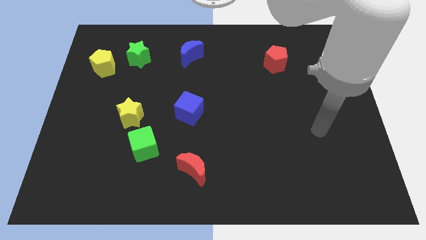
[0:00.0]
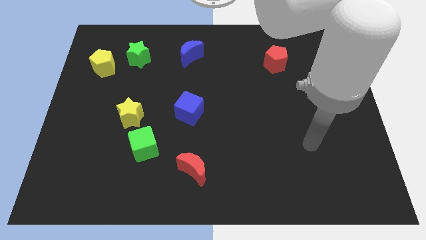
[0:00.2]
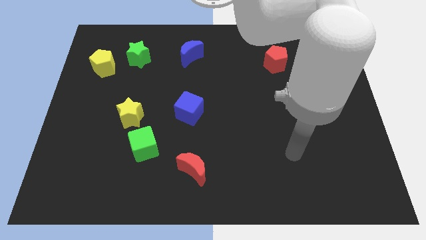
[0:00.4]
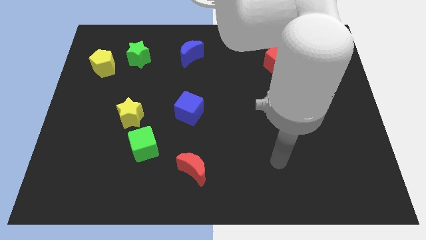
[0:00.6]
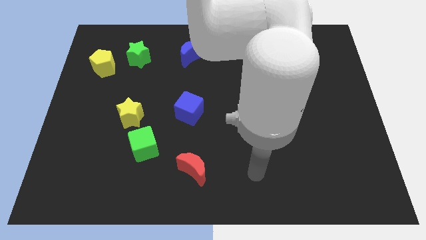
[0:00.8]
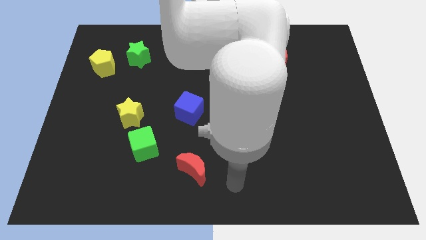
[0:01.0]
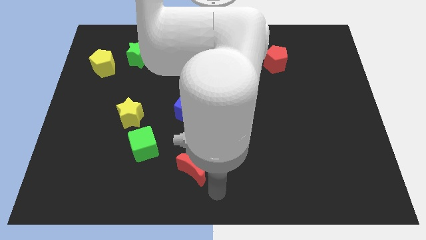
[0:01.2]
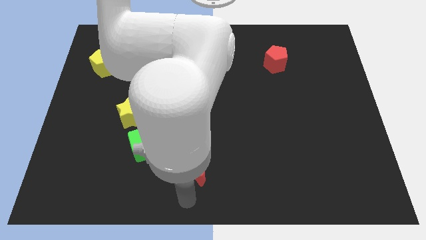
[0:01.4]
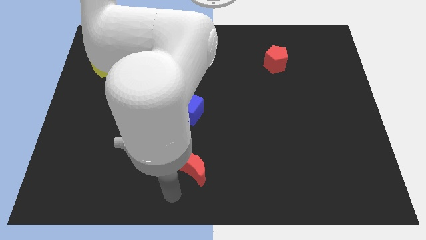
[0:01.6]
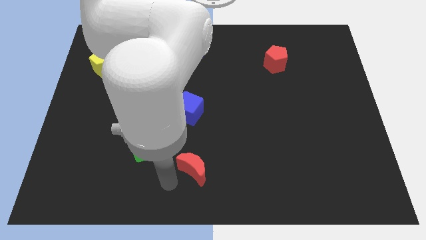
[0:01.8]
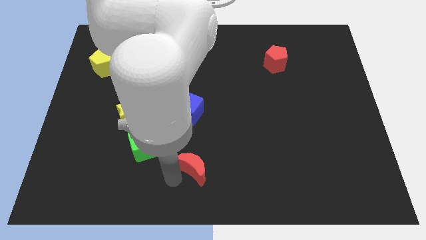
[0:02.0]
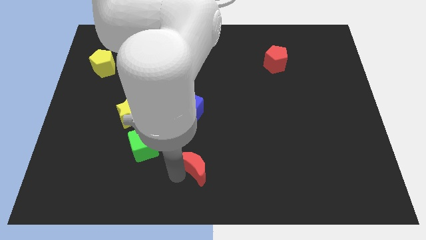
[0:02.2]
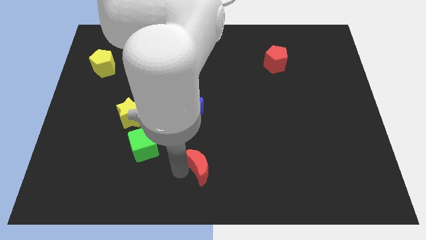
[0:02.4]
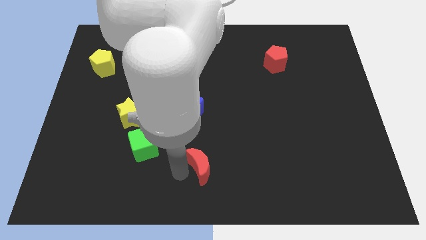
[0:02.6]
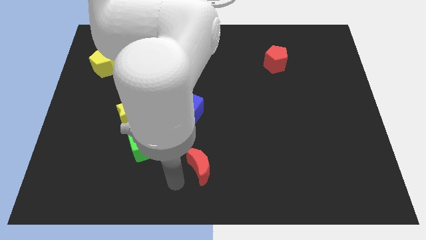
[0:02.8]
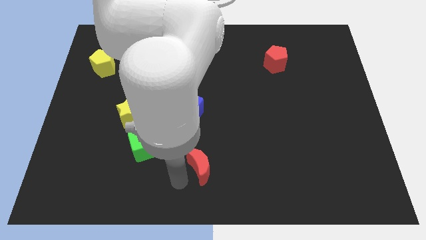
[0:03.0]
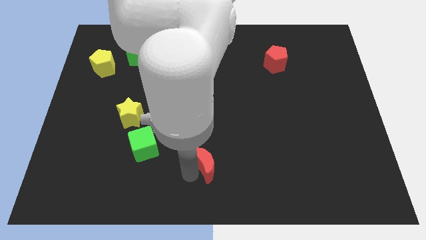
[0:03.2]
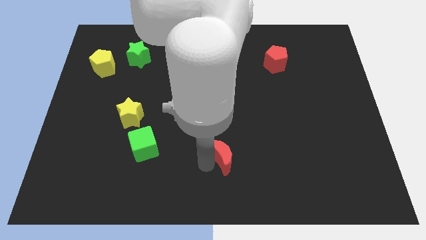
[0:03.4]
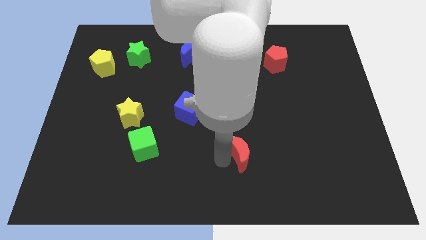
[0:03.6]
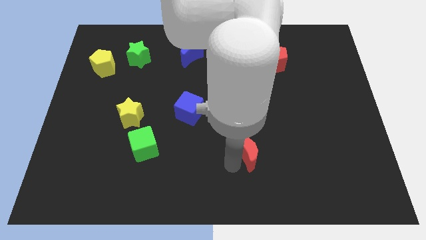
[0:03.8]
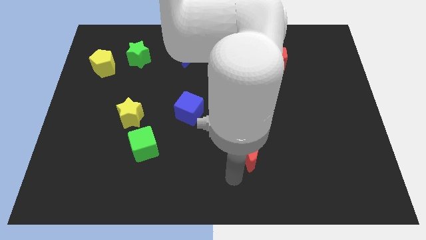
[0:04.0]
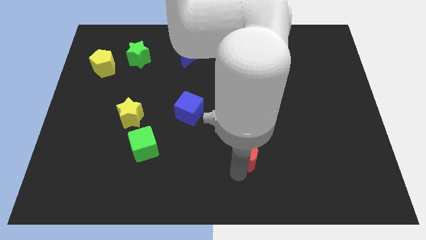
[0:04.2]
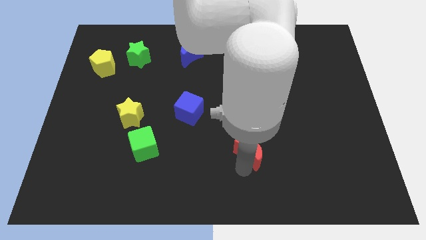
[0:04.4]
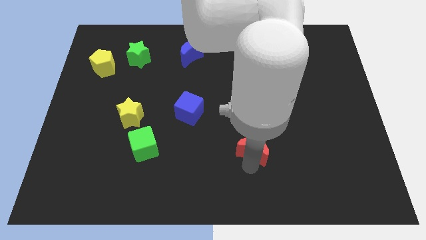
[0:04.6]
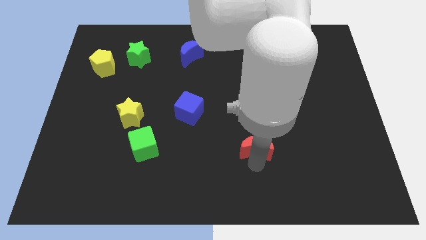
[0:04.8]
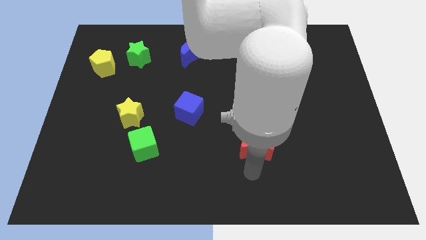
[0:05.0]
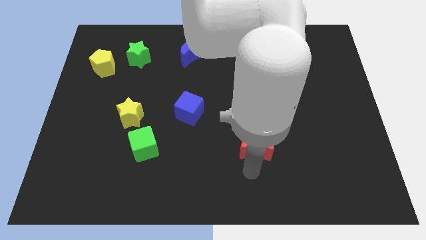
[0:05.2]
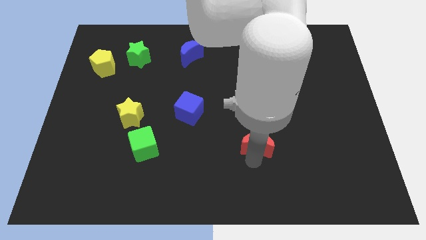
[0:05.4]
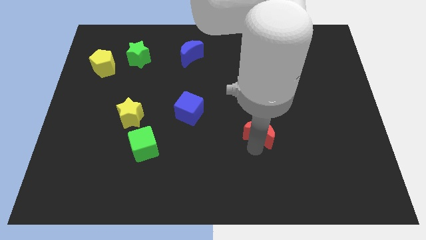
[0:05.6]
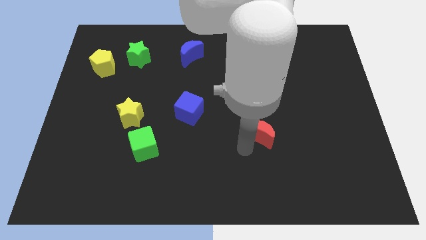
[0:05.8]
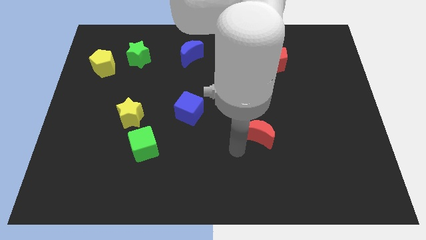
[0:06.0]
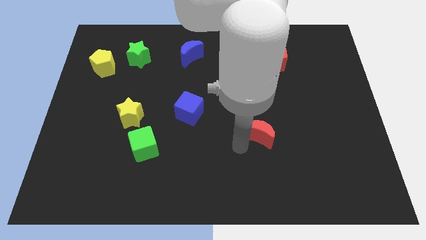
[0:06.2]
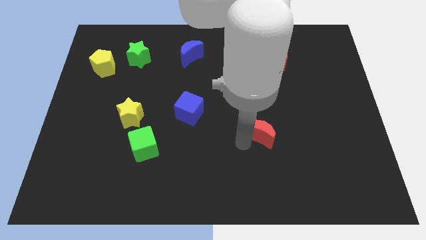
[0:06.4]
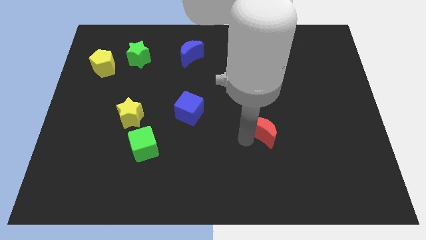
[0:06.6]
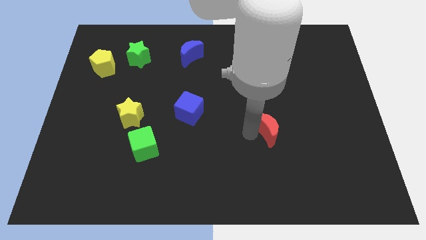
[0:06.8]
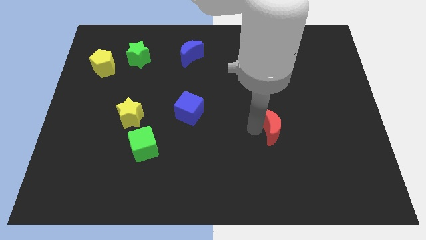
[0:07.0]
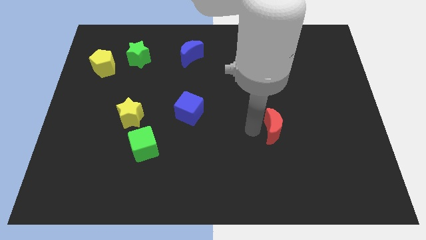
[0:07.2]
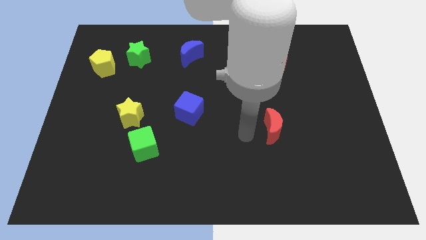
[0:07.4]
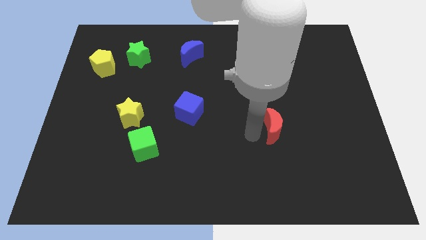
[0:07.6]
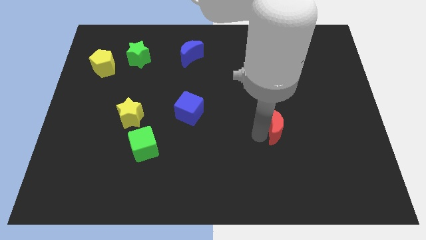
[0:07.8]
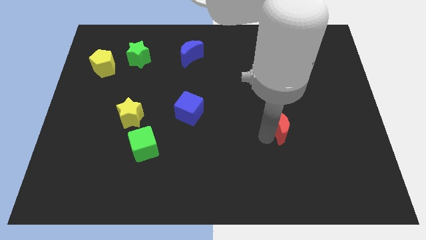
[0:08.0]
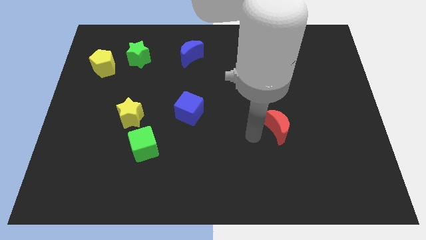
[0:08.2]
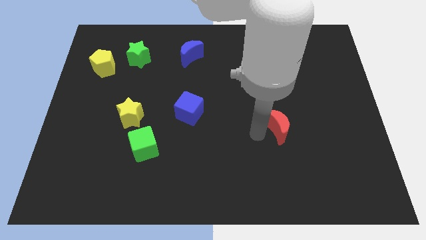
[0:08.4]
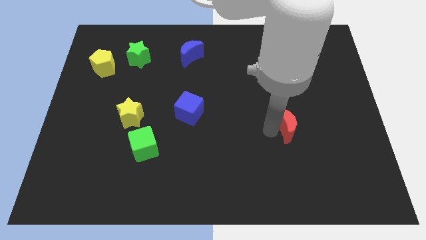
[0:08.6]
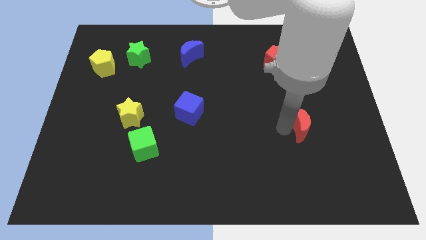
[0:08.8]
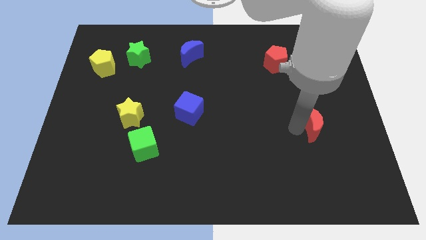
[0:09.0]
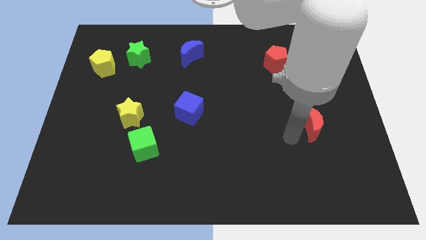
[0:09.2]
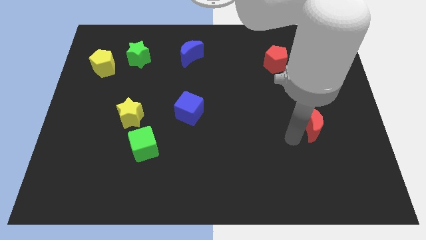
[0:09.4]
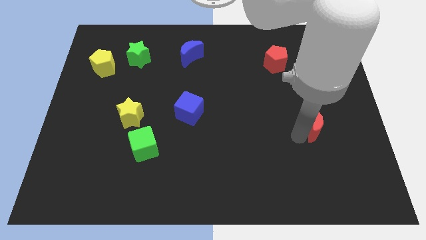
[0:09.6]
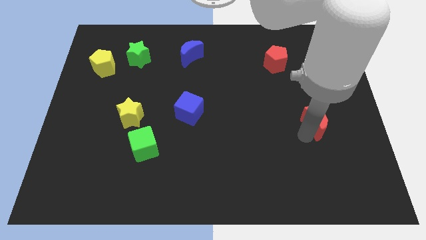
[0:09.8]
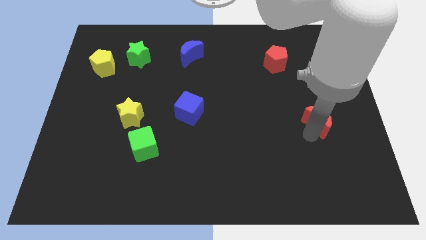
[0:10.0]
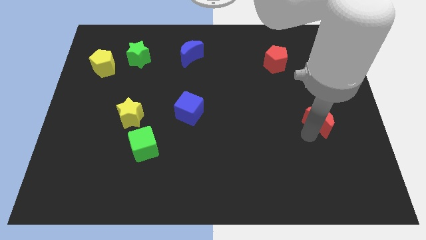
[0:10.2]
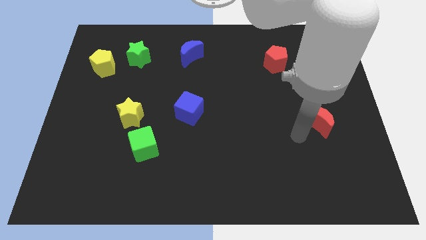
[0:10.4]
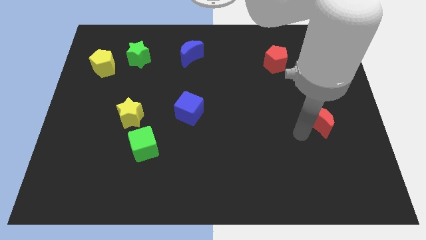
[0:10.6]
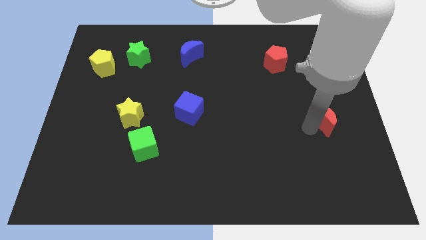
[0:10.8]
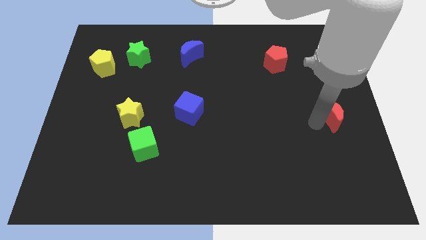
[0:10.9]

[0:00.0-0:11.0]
put the red moon to the center right
